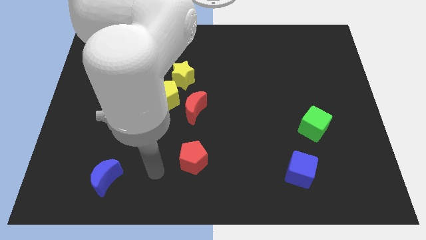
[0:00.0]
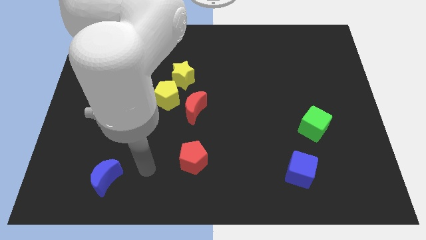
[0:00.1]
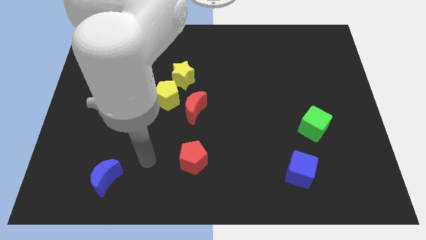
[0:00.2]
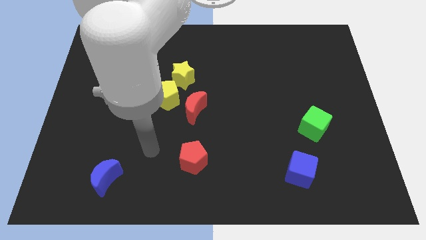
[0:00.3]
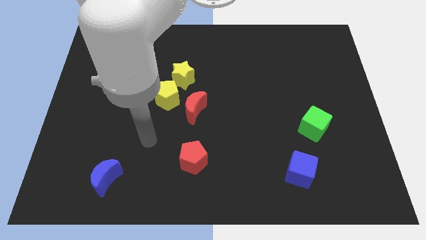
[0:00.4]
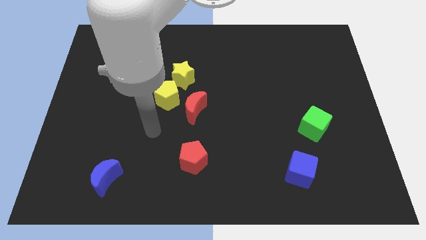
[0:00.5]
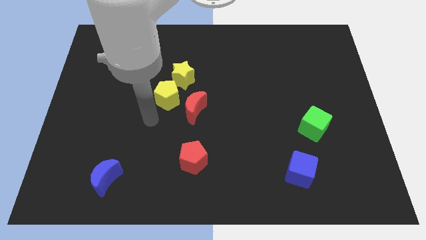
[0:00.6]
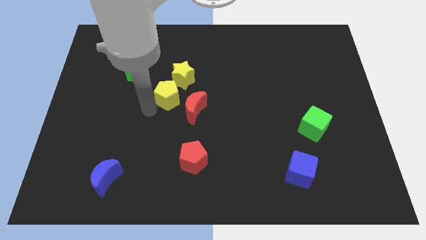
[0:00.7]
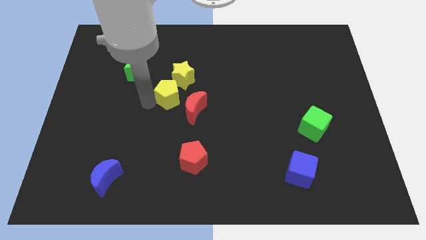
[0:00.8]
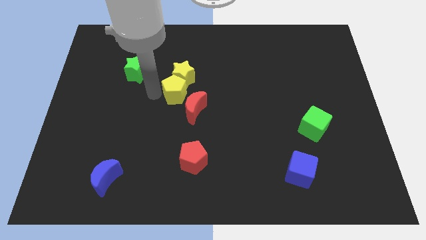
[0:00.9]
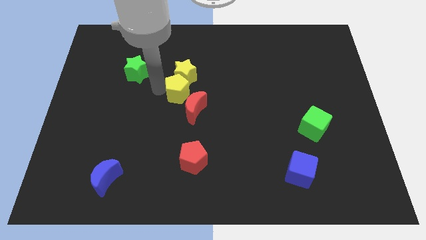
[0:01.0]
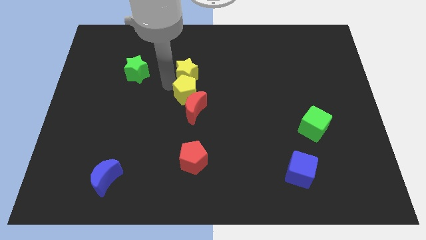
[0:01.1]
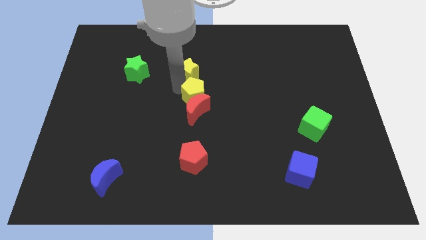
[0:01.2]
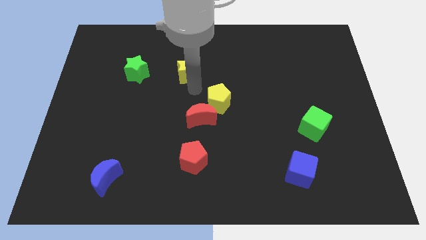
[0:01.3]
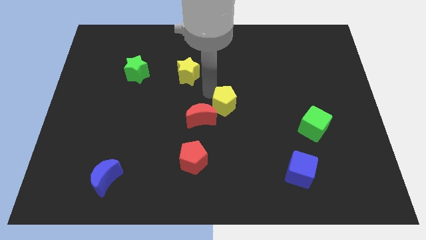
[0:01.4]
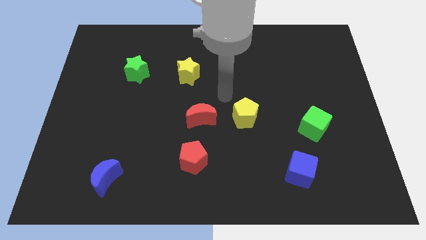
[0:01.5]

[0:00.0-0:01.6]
separate the yellow pentagon from the yellow star and red moon

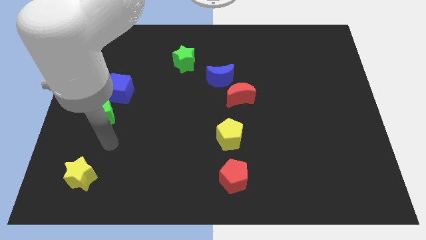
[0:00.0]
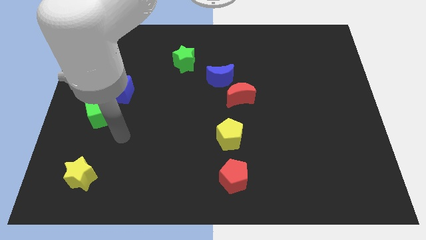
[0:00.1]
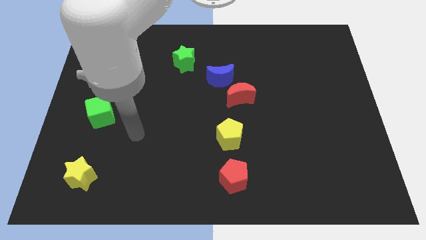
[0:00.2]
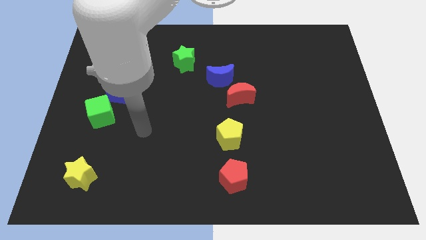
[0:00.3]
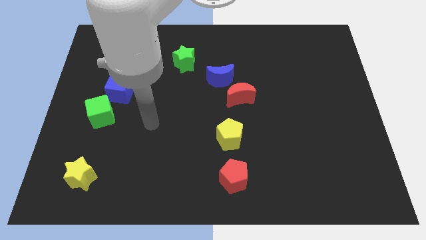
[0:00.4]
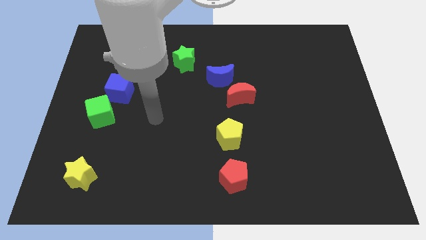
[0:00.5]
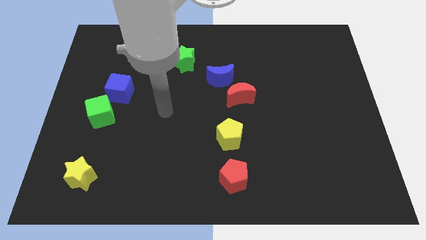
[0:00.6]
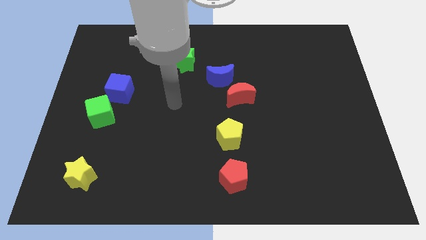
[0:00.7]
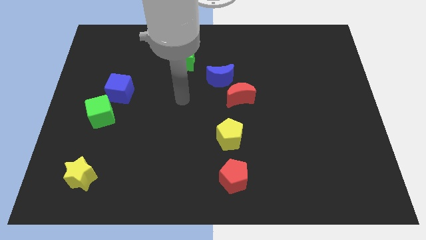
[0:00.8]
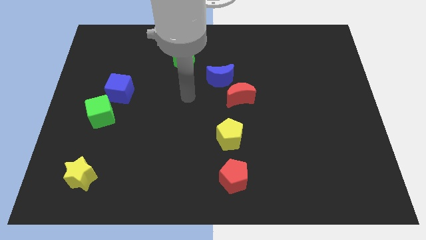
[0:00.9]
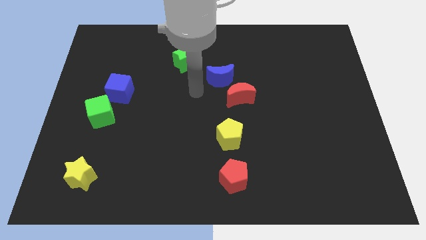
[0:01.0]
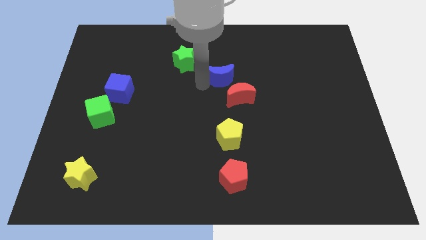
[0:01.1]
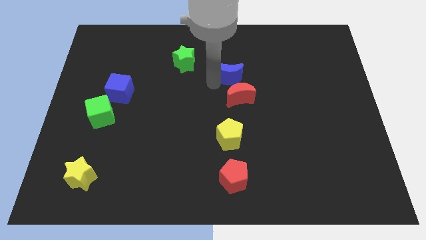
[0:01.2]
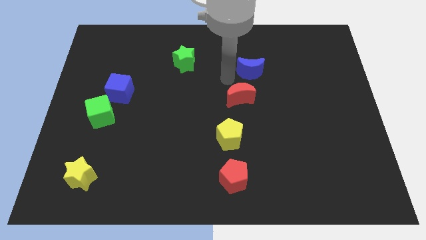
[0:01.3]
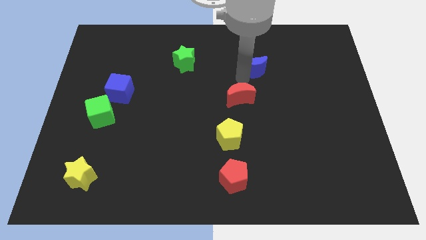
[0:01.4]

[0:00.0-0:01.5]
separate the red moon from the blue moon

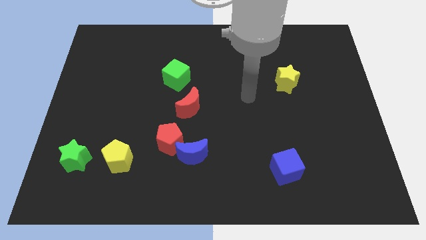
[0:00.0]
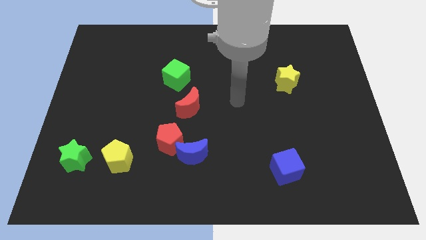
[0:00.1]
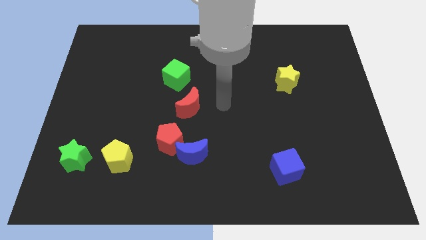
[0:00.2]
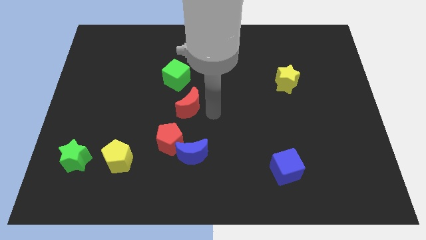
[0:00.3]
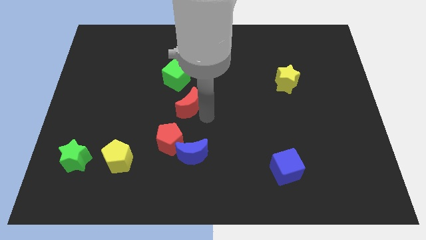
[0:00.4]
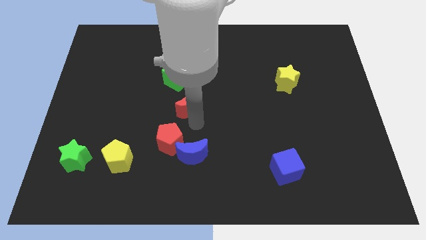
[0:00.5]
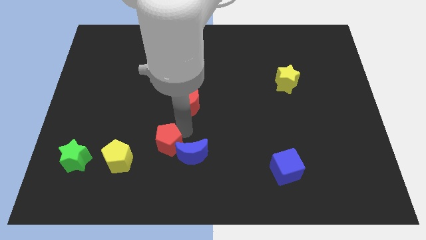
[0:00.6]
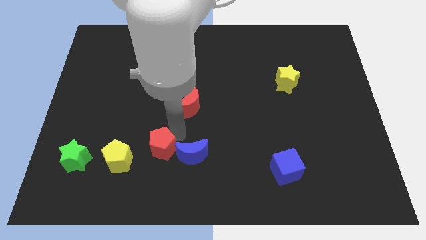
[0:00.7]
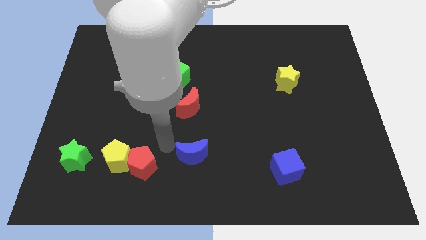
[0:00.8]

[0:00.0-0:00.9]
separate the blue moon from the red pentagon

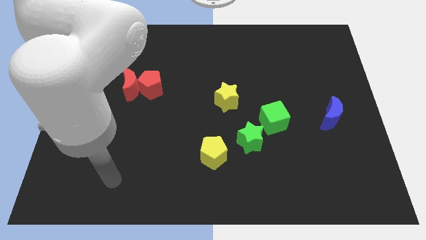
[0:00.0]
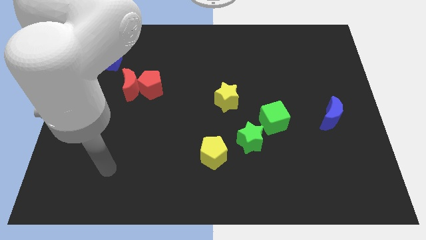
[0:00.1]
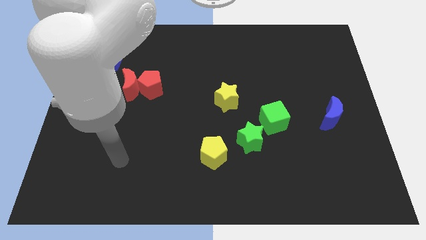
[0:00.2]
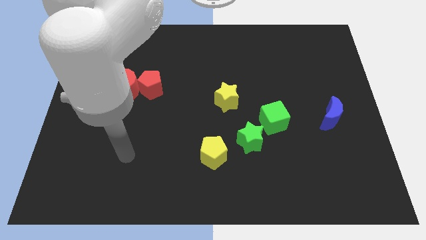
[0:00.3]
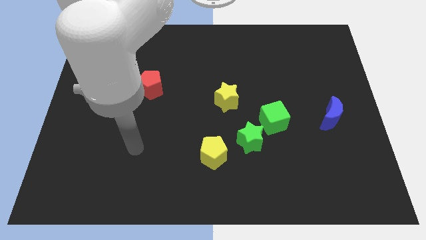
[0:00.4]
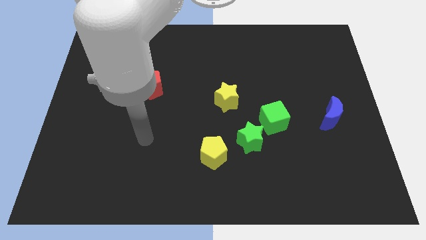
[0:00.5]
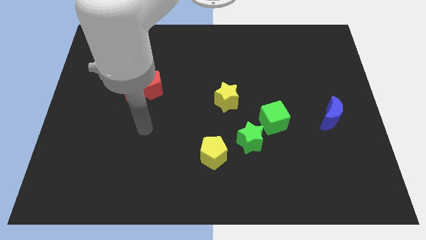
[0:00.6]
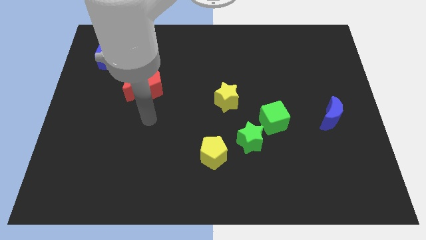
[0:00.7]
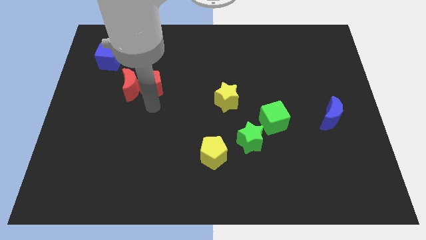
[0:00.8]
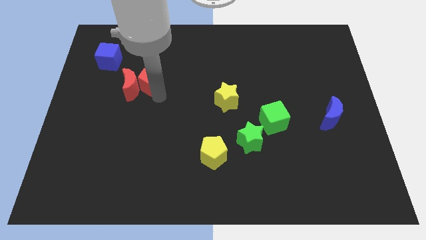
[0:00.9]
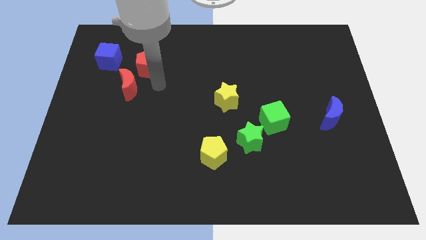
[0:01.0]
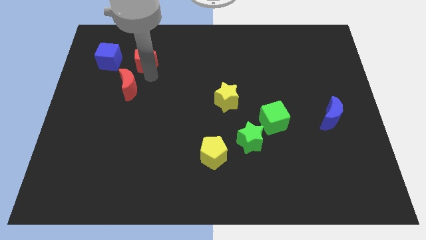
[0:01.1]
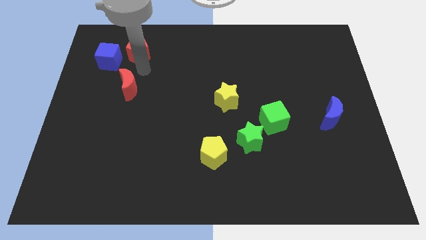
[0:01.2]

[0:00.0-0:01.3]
pull the red moon apart from the red pentagon

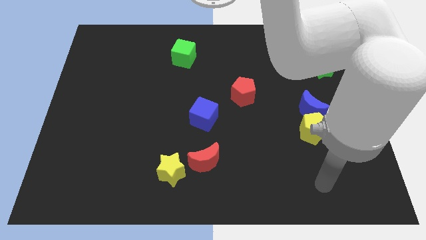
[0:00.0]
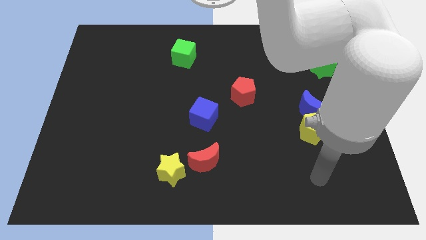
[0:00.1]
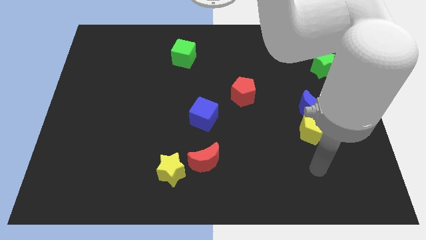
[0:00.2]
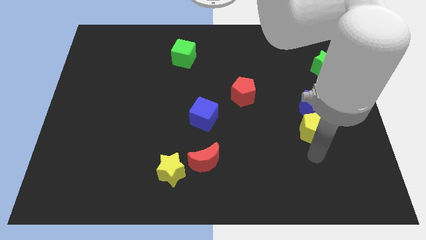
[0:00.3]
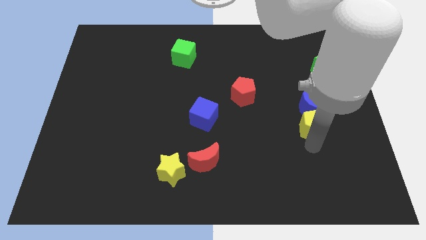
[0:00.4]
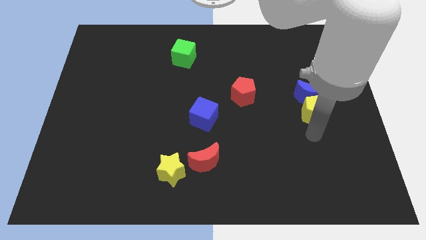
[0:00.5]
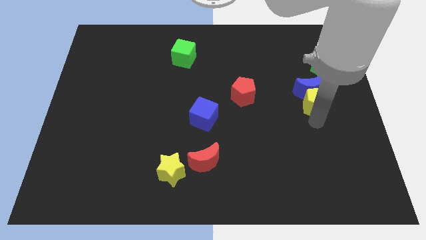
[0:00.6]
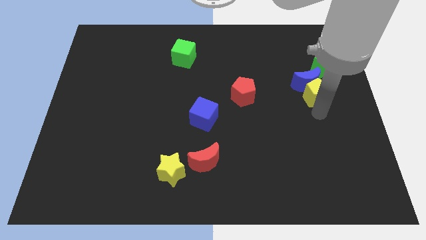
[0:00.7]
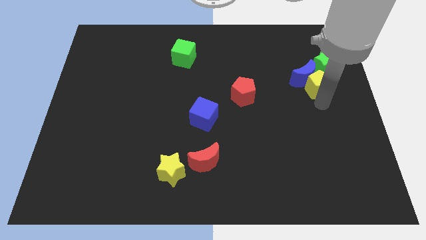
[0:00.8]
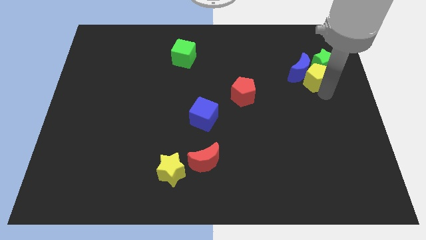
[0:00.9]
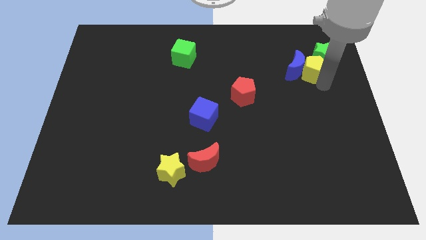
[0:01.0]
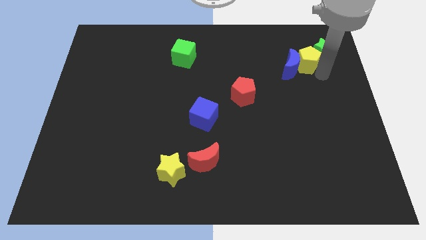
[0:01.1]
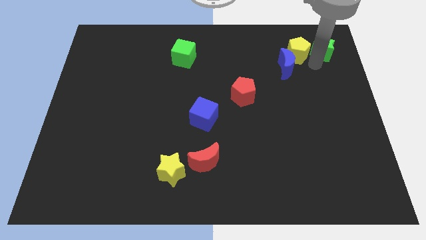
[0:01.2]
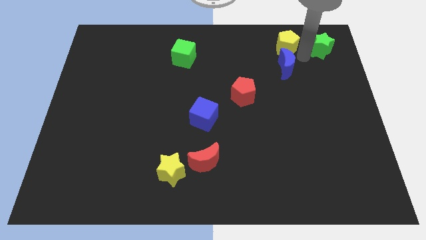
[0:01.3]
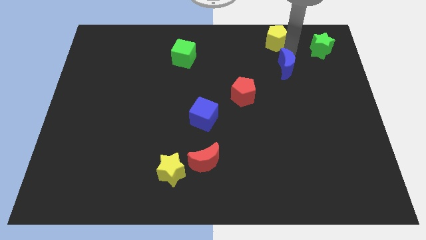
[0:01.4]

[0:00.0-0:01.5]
pull the blue moon apart from the yellow pentagon

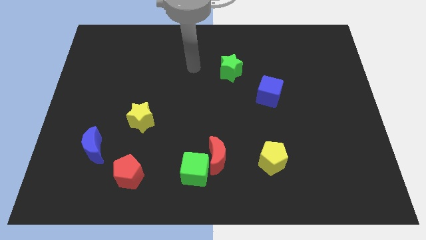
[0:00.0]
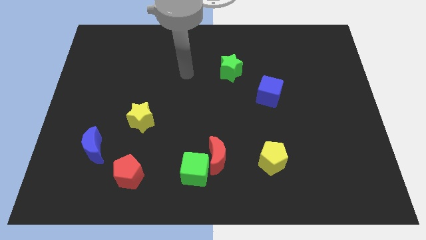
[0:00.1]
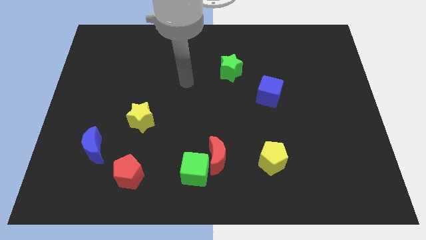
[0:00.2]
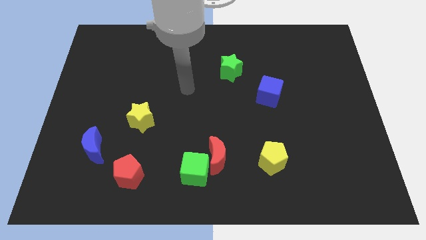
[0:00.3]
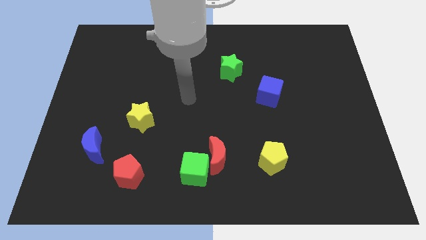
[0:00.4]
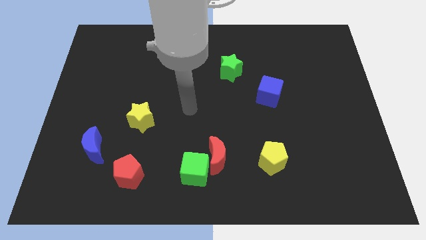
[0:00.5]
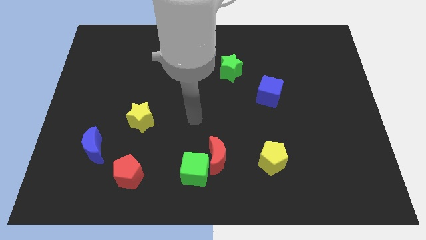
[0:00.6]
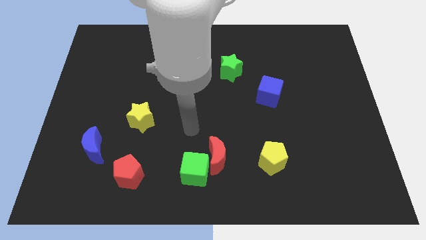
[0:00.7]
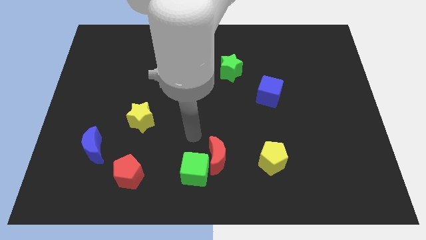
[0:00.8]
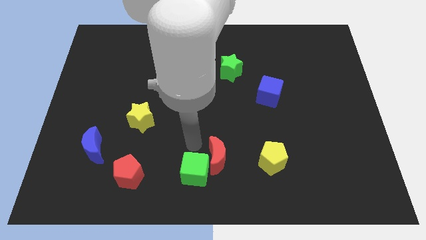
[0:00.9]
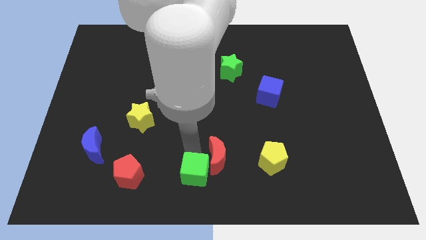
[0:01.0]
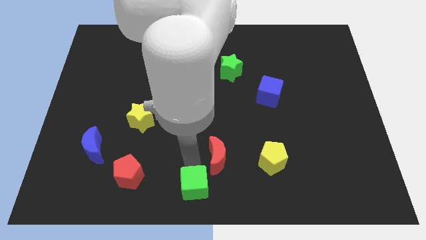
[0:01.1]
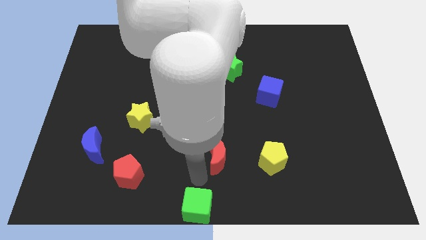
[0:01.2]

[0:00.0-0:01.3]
separate the red moon from the green cube

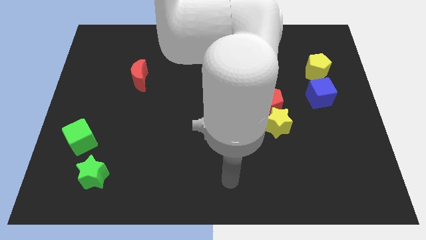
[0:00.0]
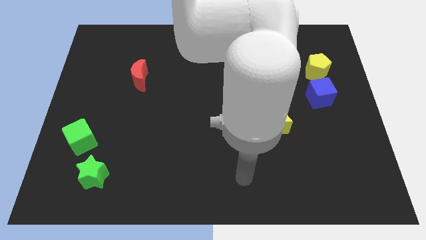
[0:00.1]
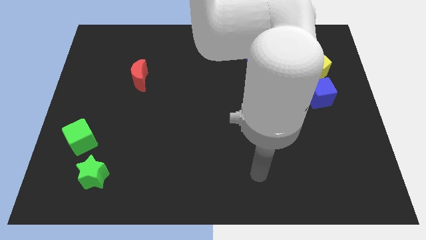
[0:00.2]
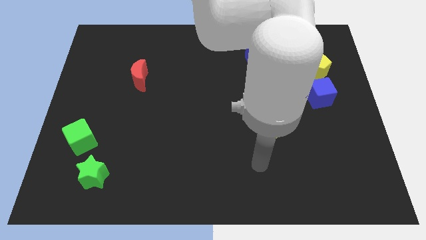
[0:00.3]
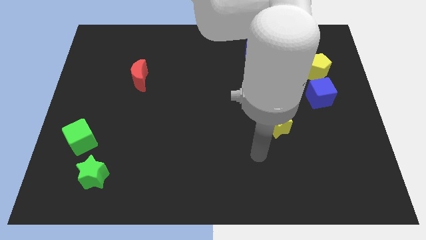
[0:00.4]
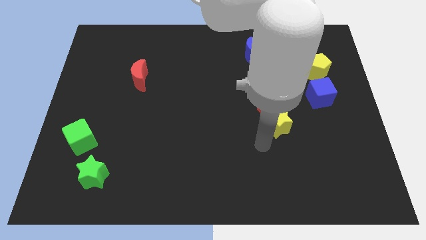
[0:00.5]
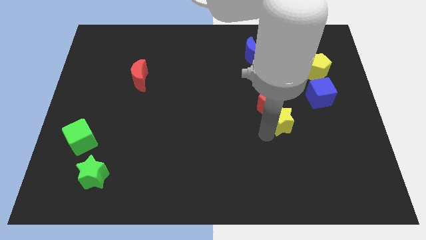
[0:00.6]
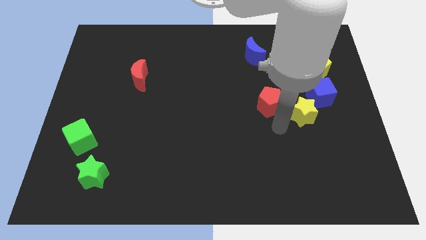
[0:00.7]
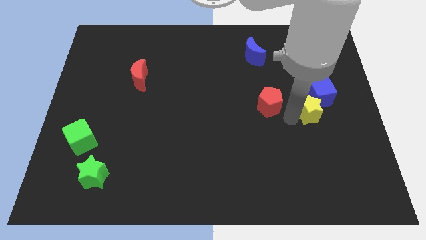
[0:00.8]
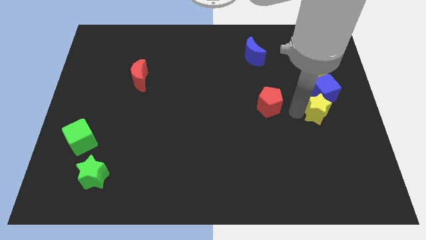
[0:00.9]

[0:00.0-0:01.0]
separate the red pentagon from the yellow star
